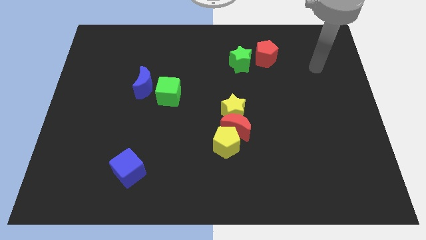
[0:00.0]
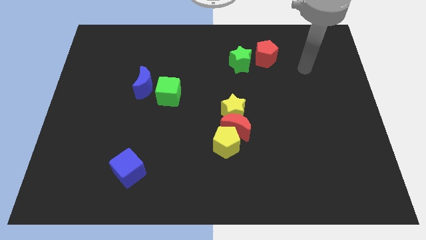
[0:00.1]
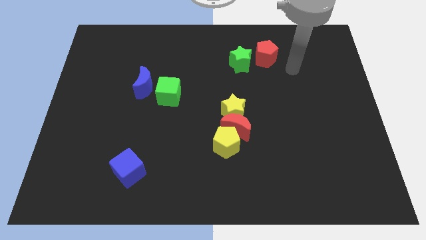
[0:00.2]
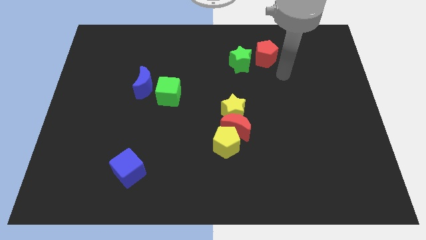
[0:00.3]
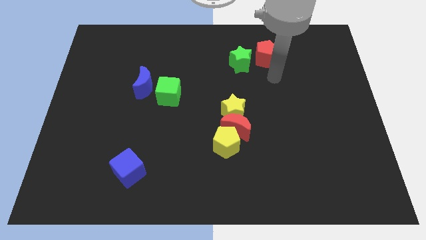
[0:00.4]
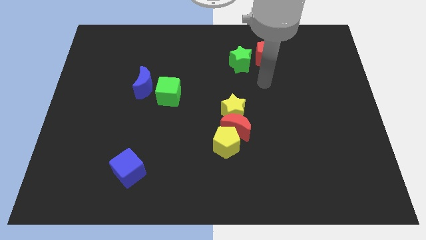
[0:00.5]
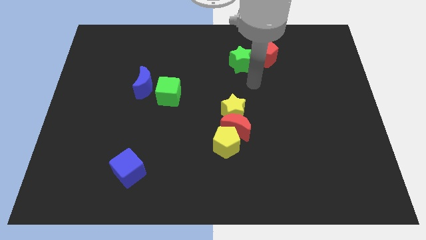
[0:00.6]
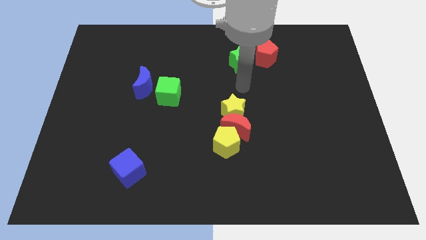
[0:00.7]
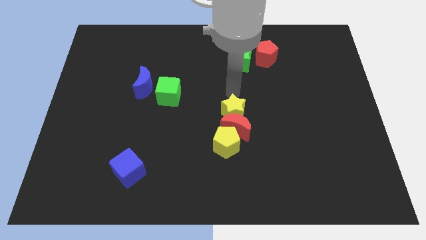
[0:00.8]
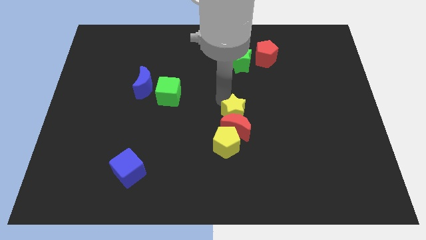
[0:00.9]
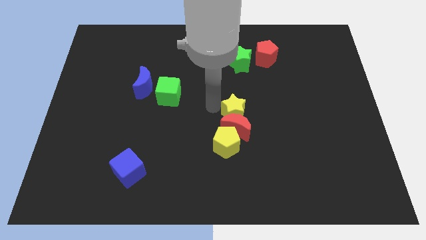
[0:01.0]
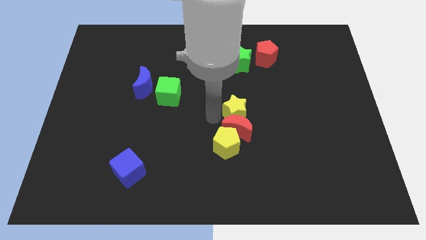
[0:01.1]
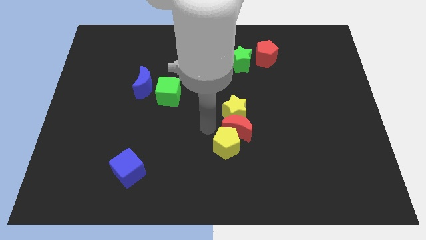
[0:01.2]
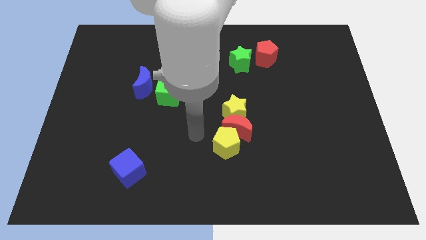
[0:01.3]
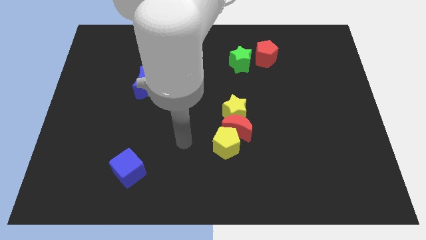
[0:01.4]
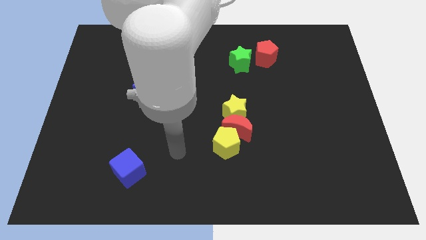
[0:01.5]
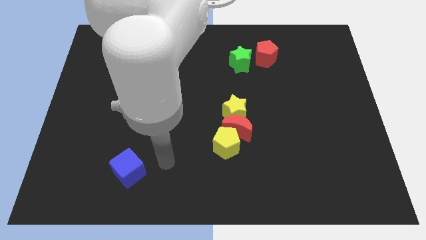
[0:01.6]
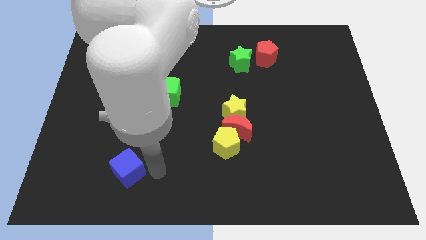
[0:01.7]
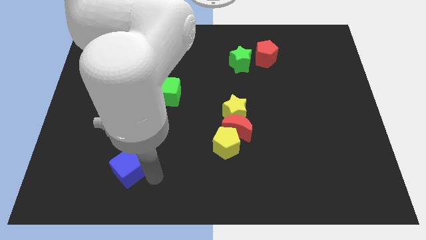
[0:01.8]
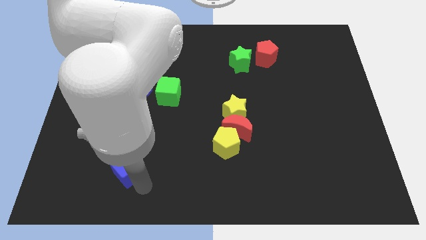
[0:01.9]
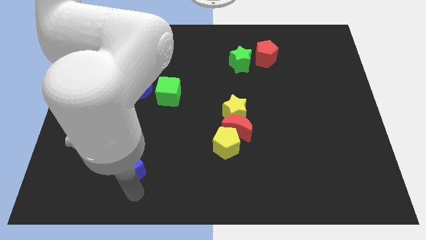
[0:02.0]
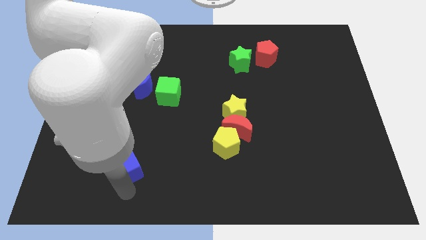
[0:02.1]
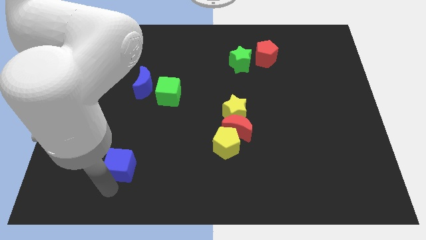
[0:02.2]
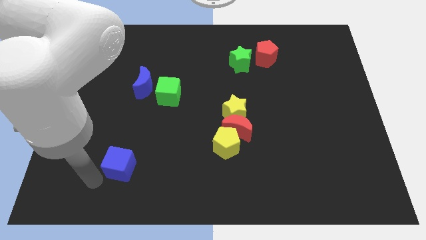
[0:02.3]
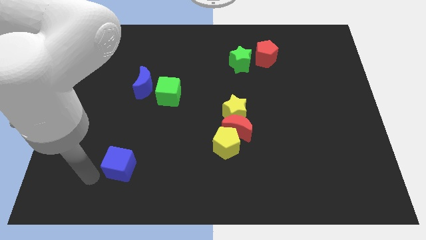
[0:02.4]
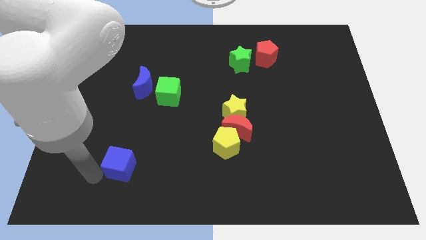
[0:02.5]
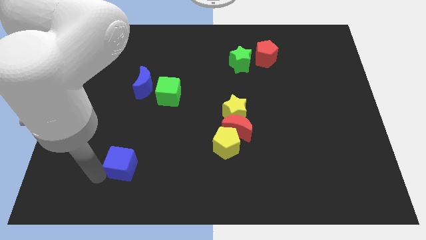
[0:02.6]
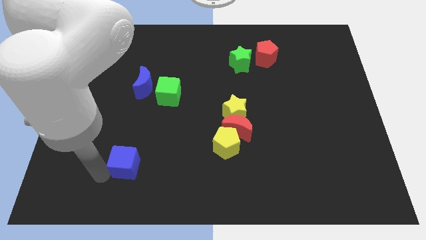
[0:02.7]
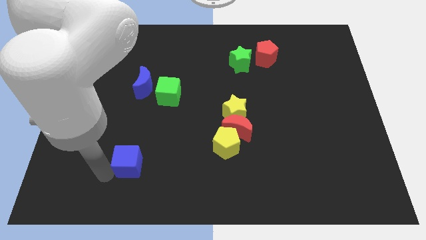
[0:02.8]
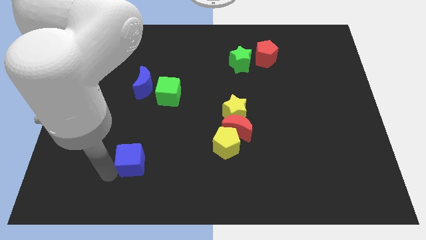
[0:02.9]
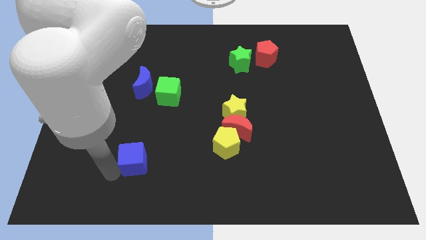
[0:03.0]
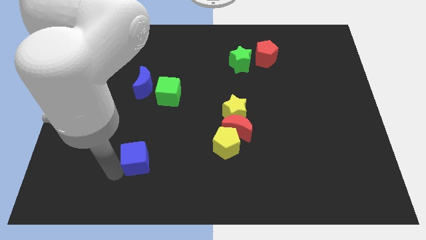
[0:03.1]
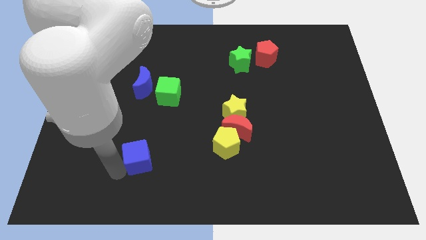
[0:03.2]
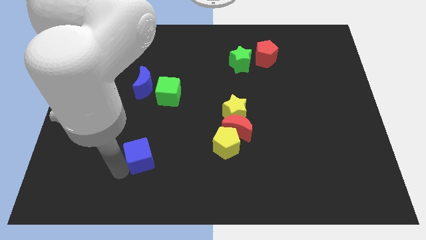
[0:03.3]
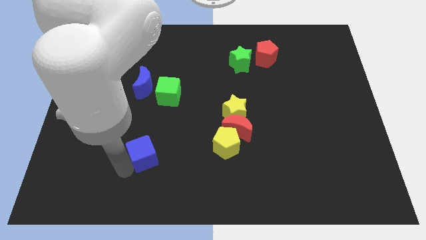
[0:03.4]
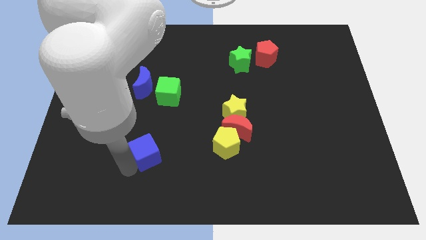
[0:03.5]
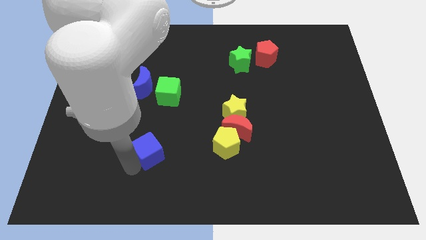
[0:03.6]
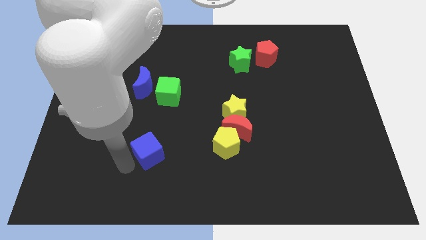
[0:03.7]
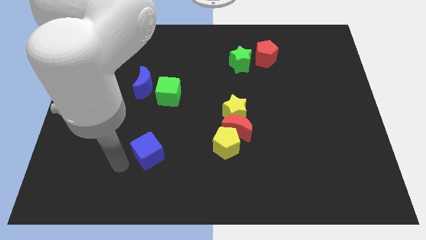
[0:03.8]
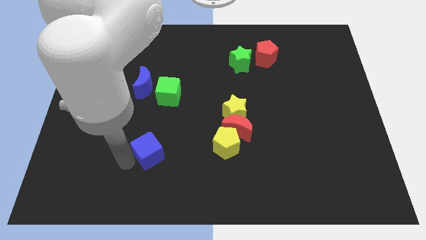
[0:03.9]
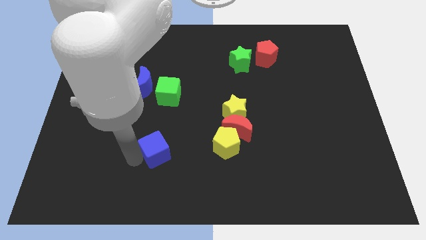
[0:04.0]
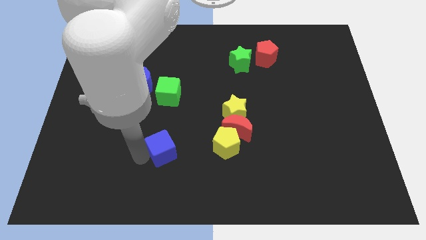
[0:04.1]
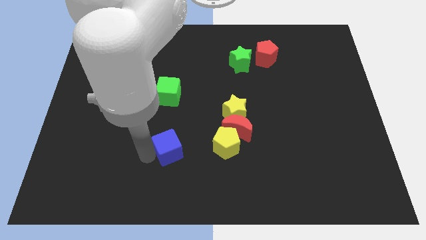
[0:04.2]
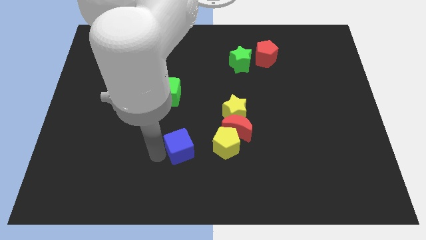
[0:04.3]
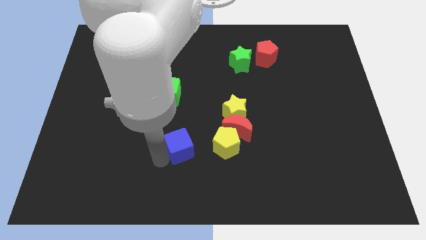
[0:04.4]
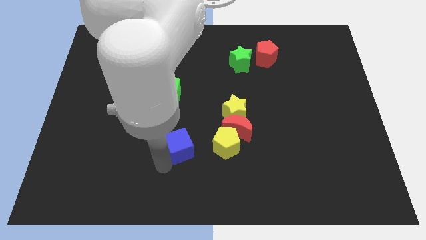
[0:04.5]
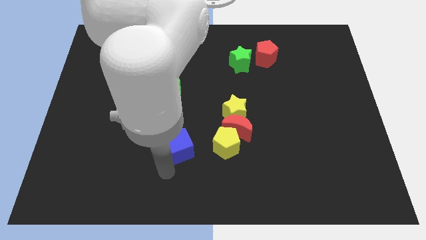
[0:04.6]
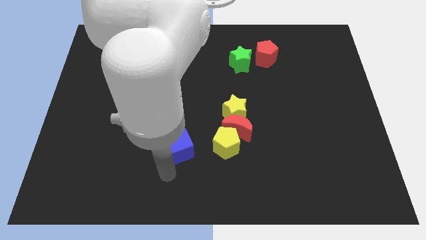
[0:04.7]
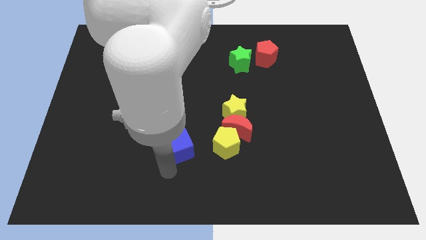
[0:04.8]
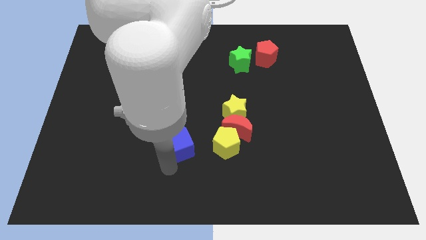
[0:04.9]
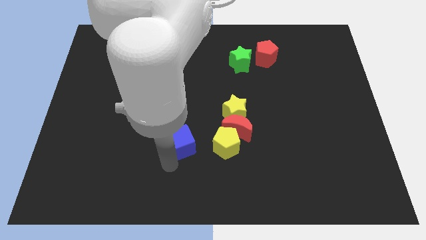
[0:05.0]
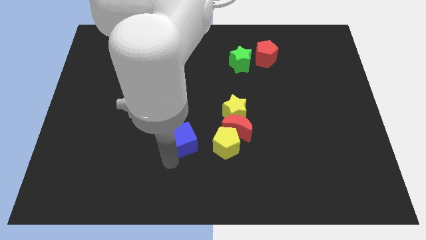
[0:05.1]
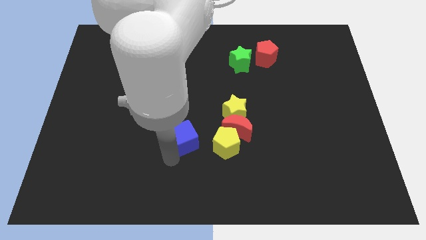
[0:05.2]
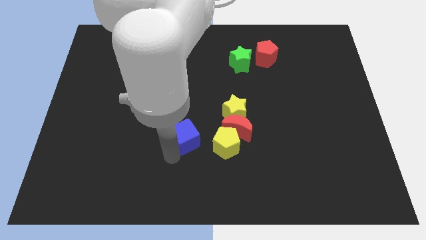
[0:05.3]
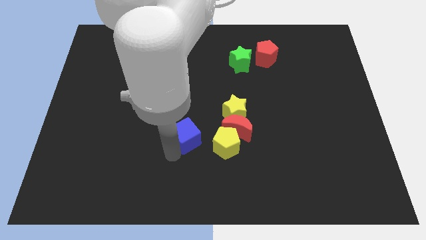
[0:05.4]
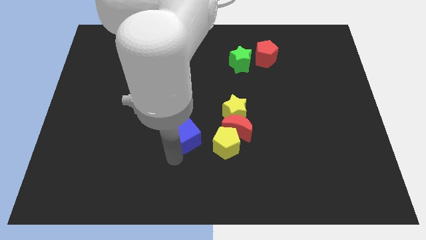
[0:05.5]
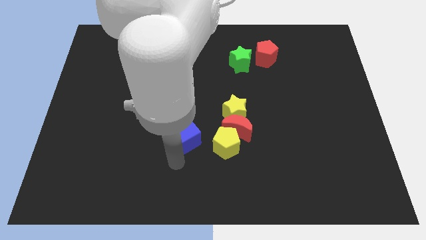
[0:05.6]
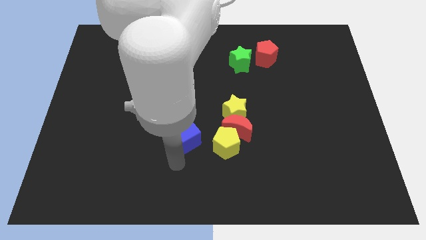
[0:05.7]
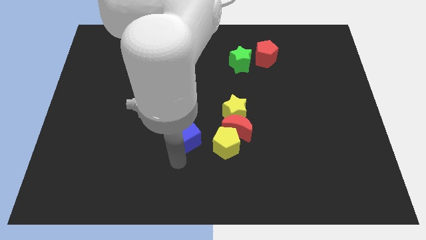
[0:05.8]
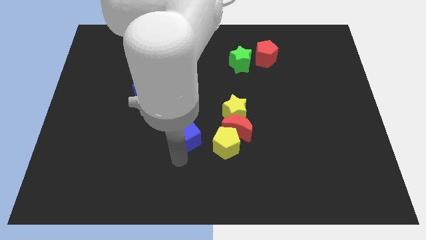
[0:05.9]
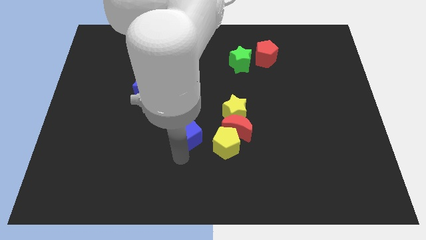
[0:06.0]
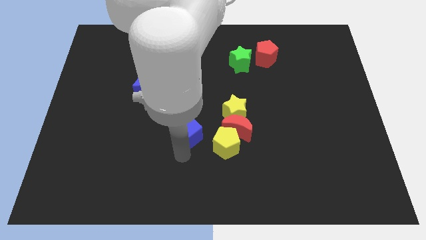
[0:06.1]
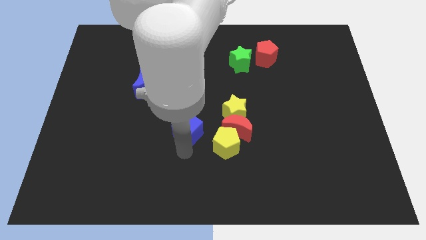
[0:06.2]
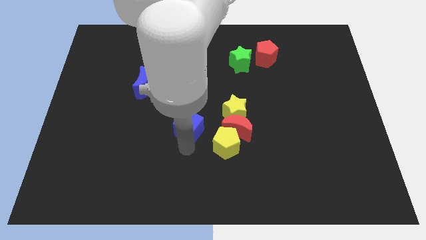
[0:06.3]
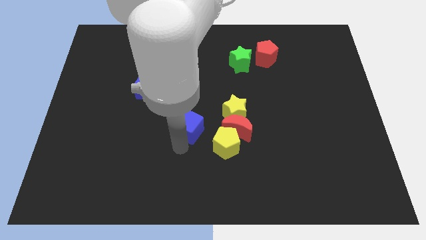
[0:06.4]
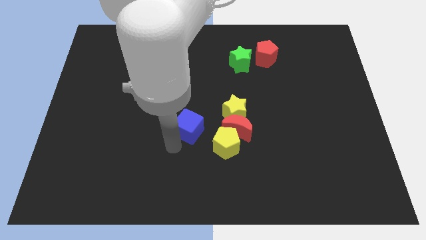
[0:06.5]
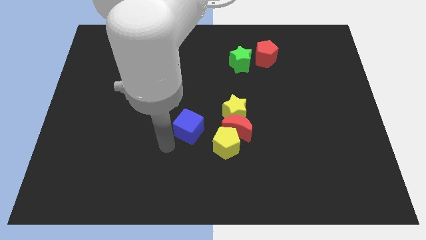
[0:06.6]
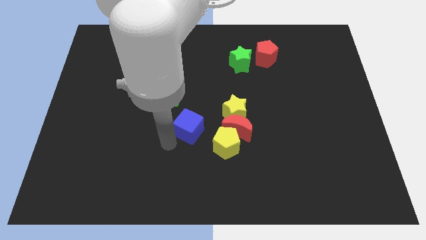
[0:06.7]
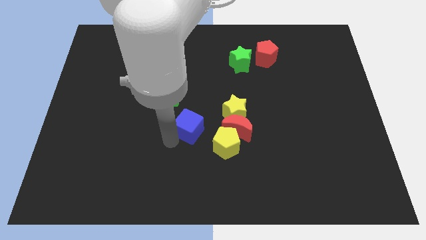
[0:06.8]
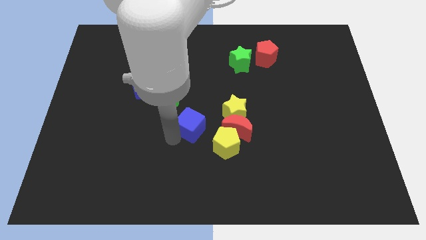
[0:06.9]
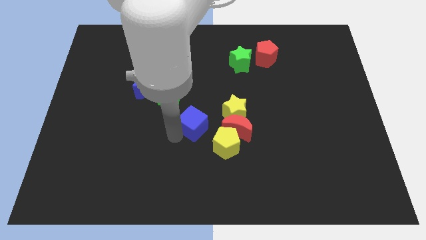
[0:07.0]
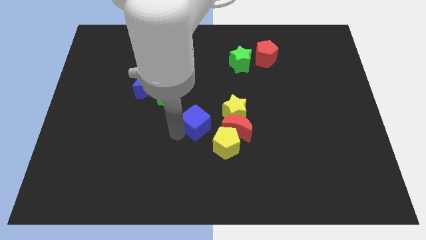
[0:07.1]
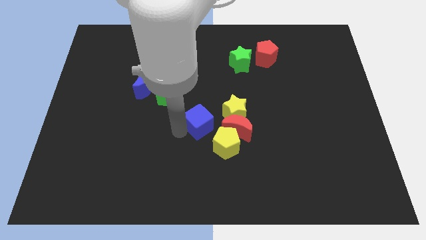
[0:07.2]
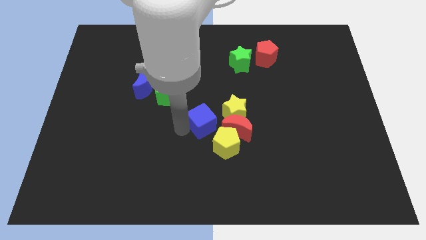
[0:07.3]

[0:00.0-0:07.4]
push the blue cube diagonally up and to the left of the red moon
